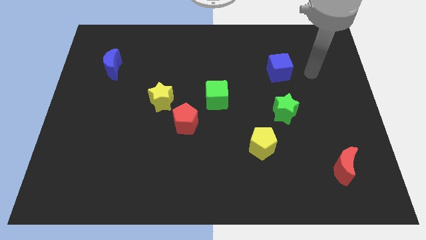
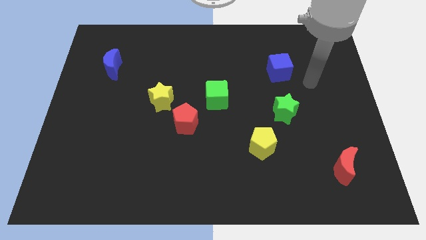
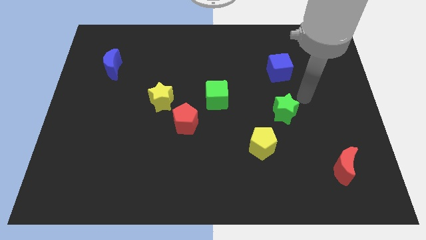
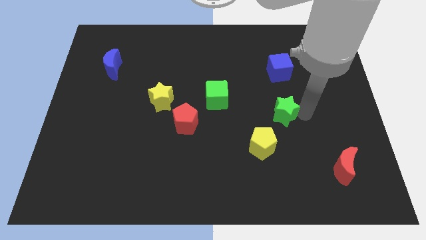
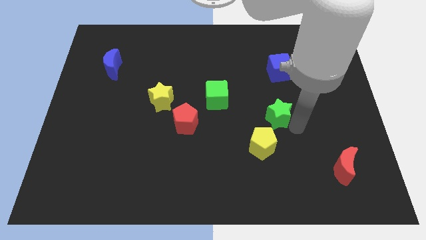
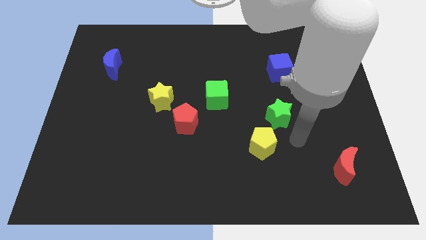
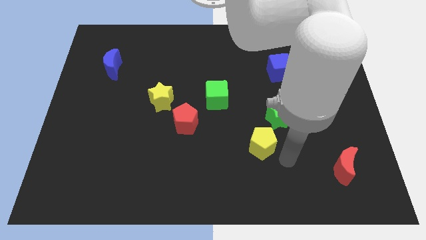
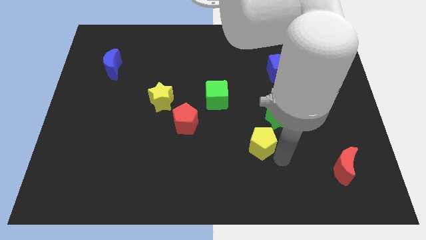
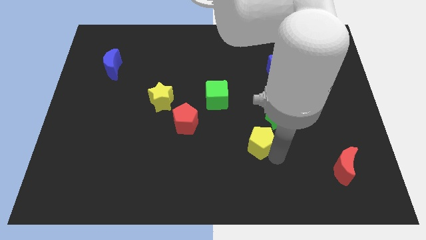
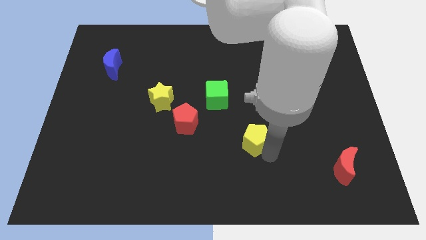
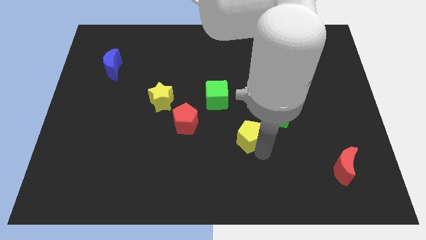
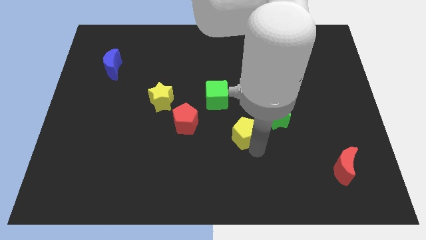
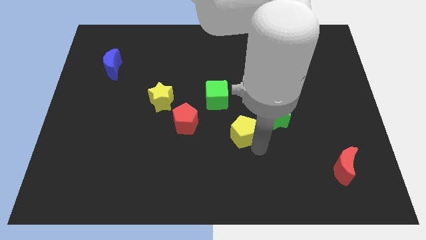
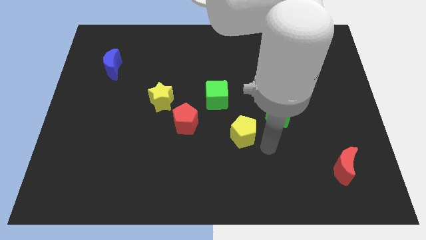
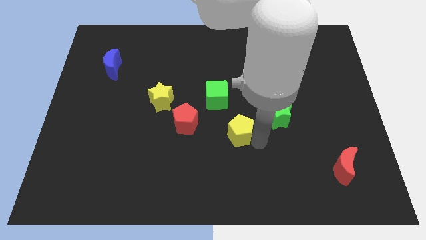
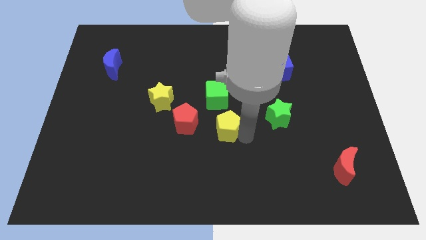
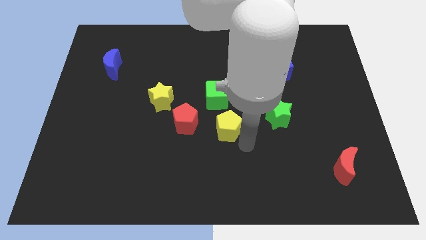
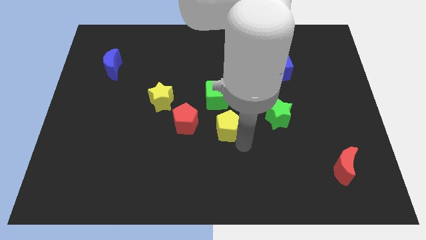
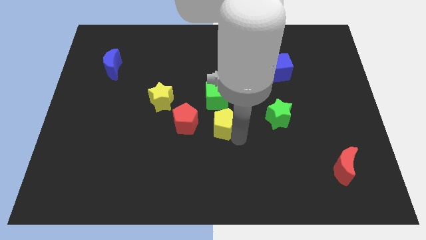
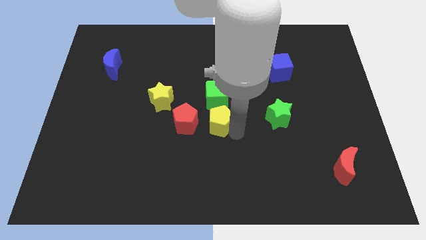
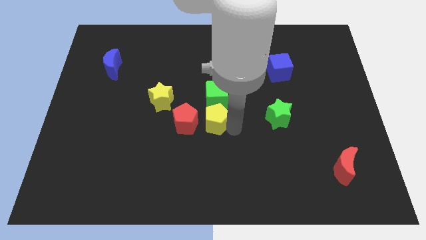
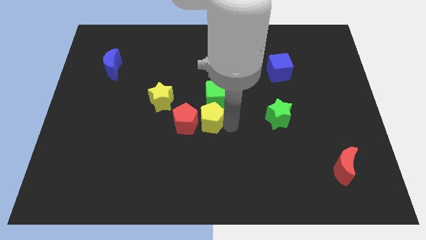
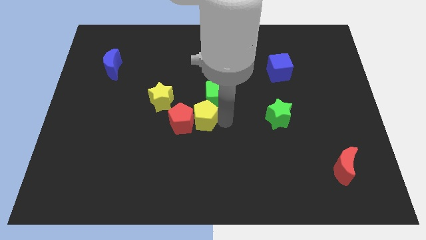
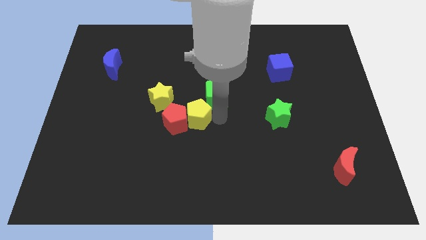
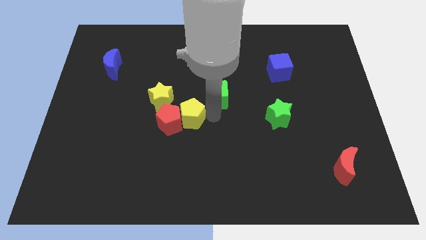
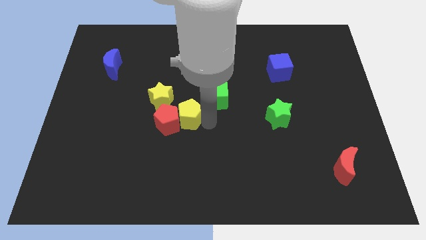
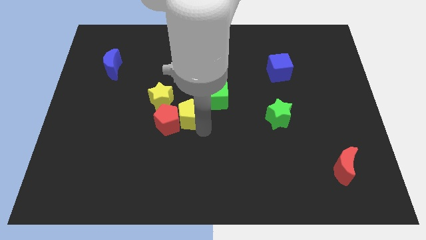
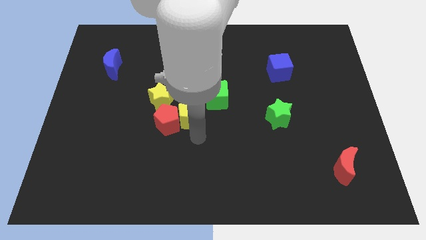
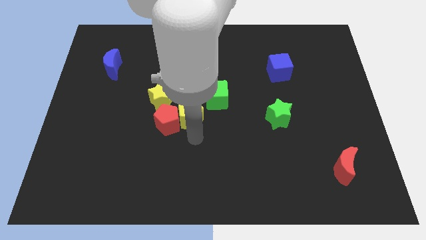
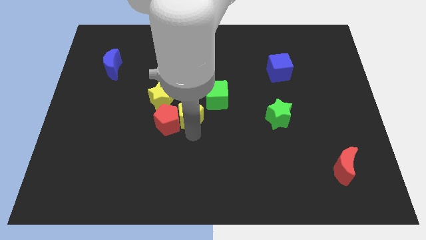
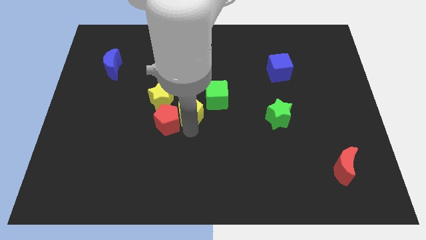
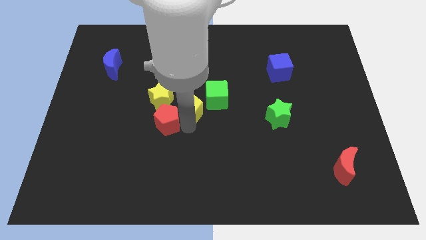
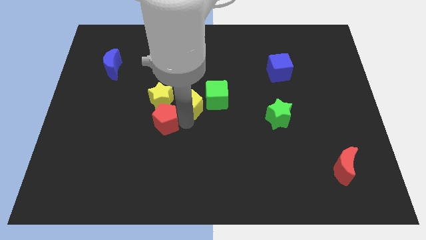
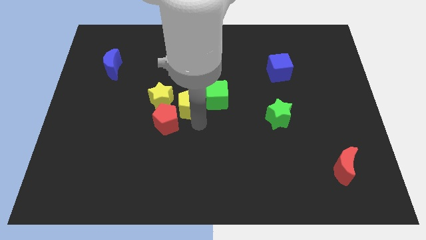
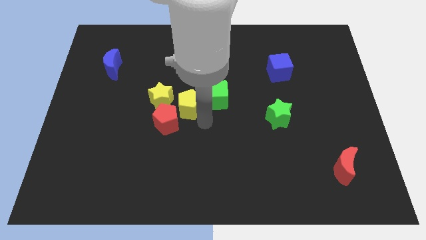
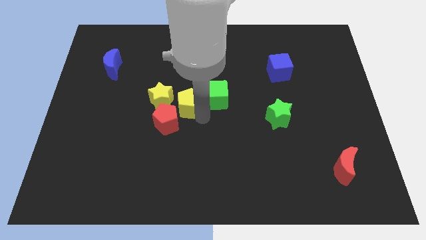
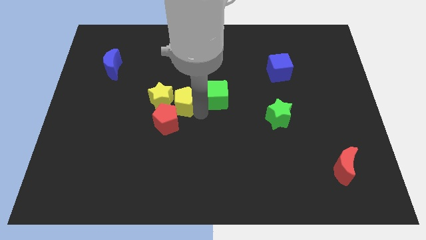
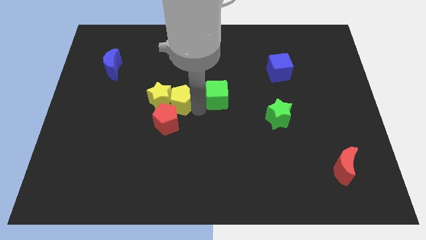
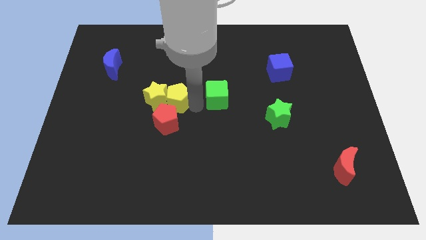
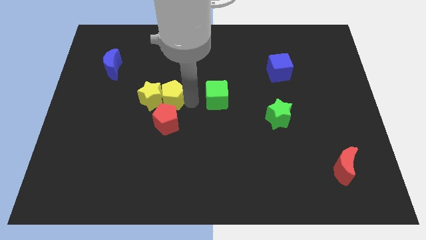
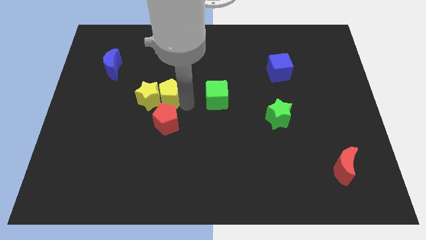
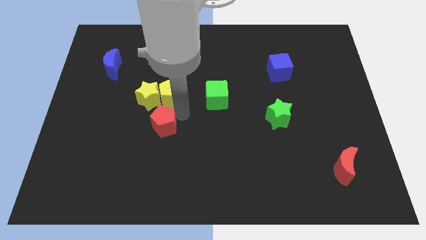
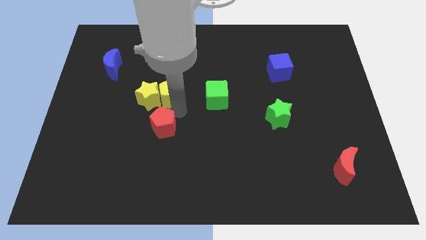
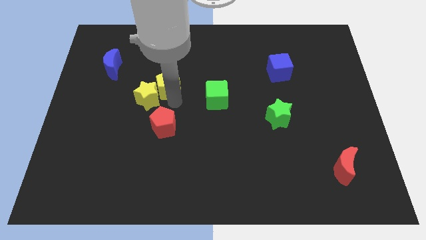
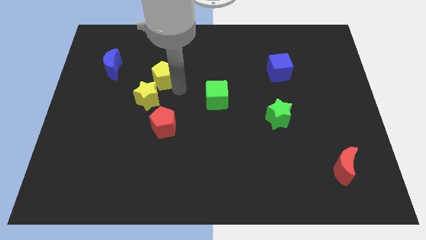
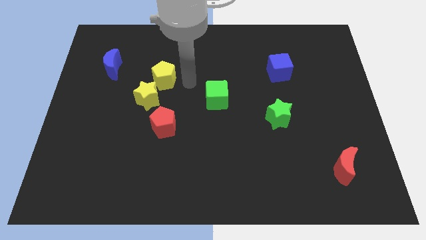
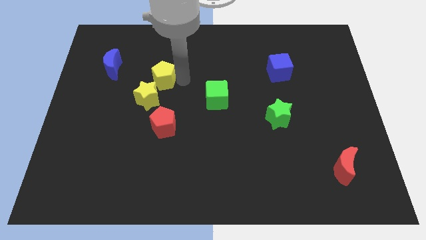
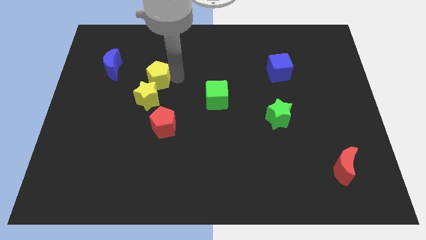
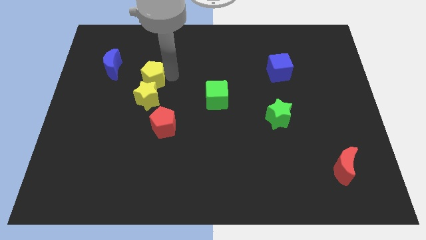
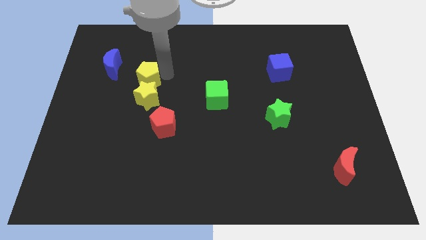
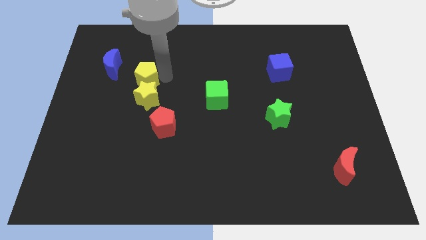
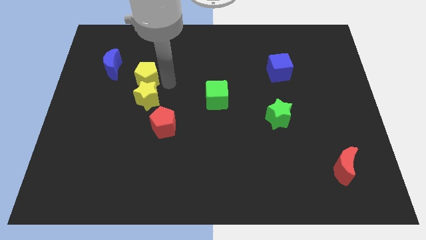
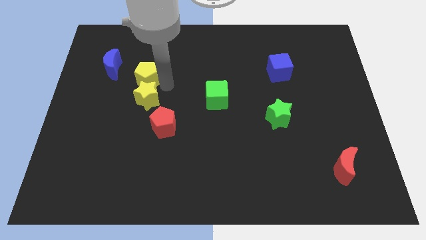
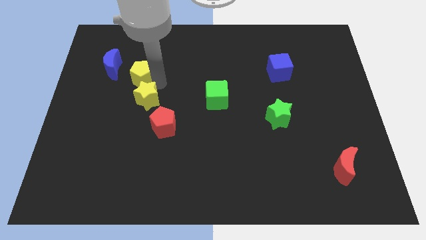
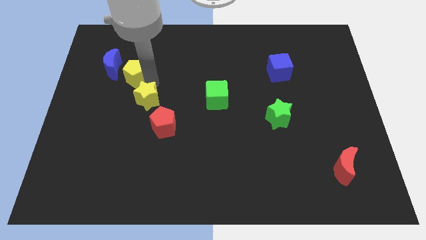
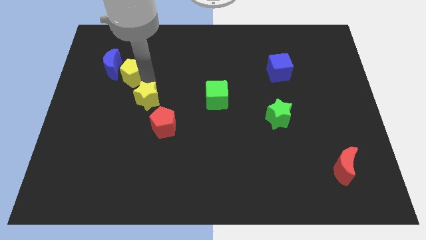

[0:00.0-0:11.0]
move the yellow pentagon to the blue moon

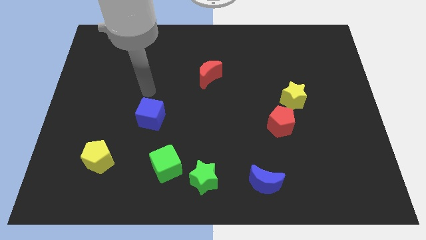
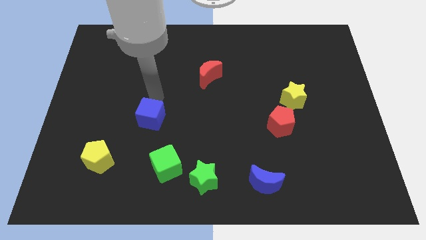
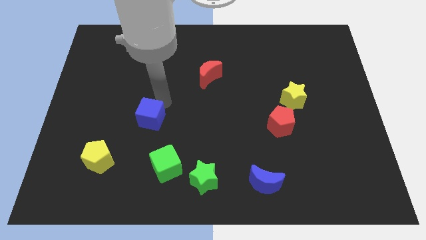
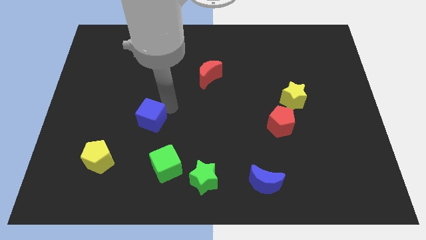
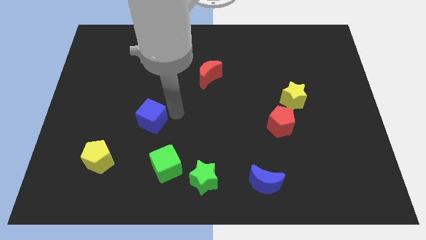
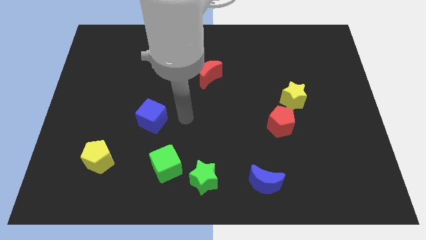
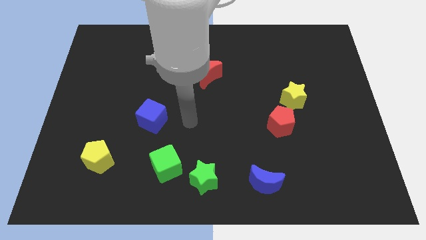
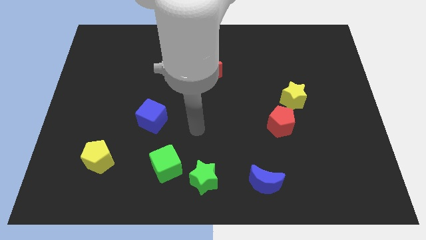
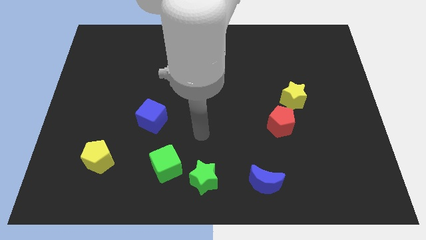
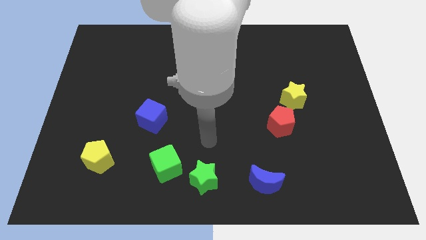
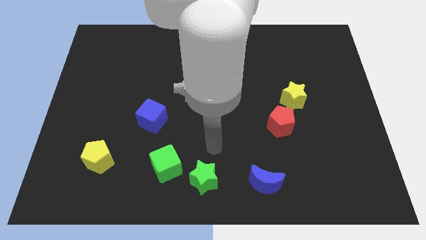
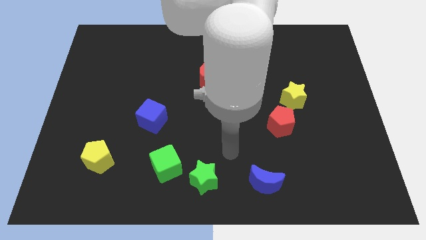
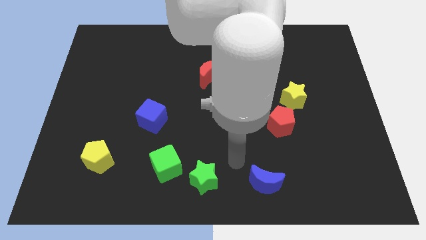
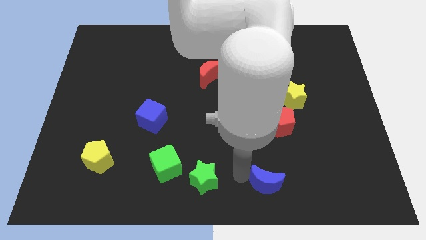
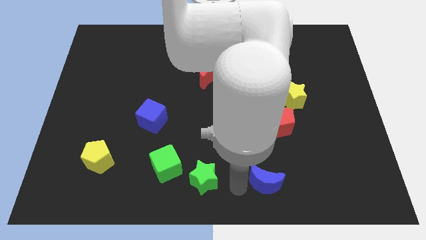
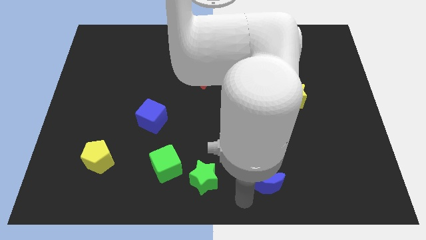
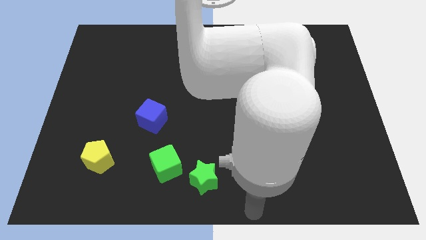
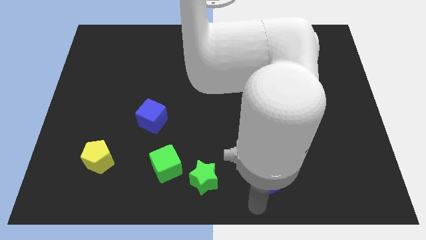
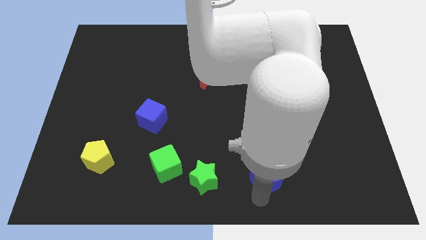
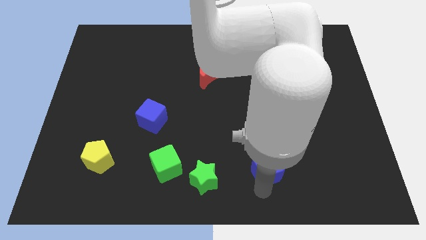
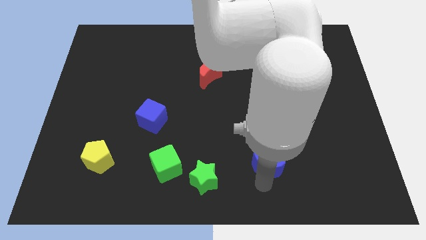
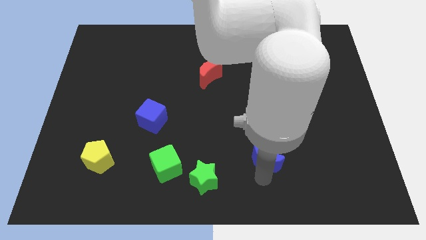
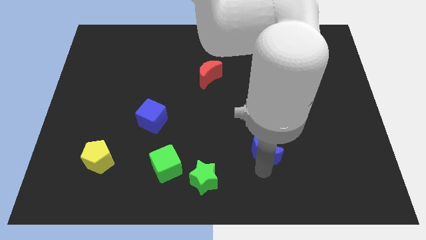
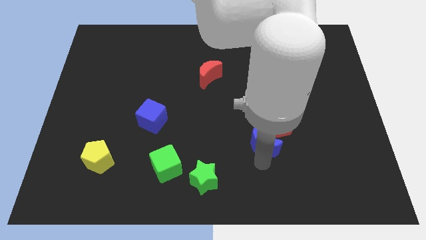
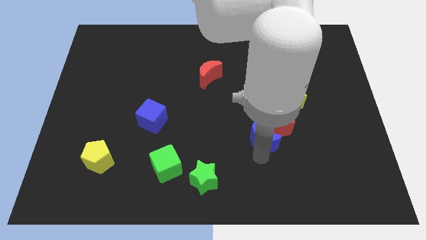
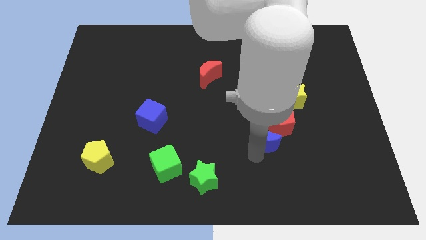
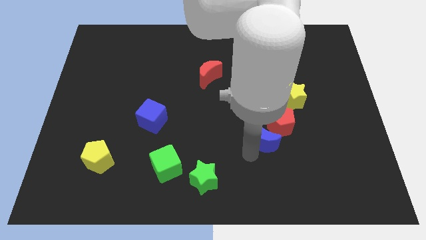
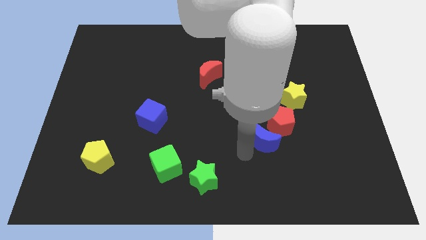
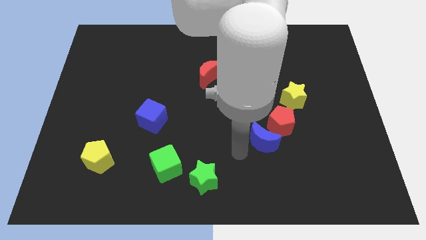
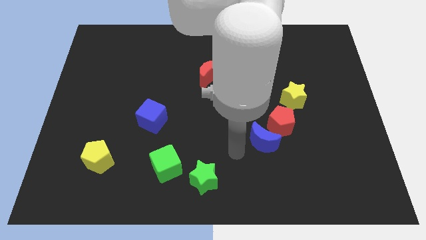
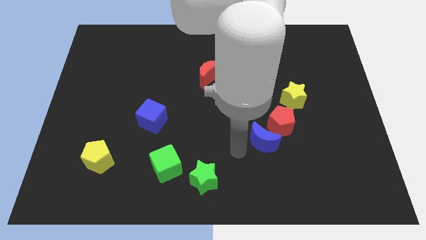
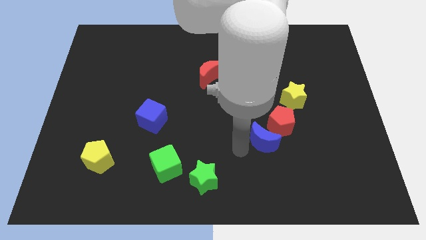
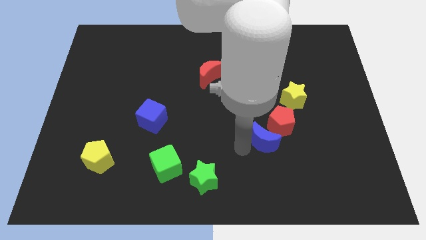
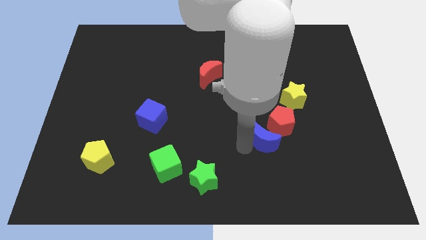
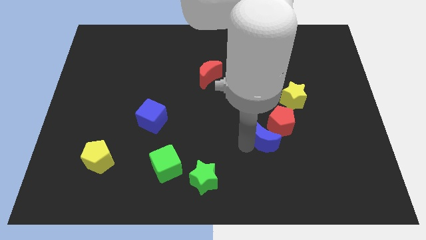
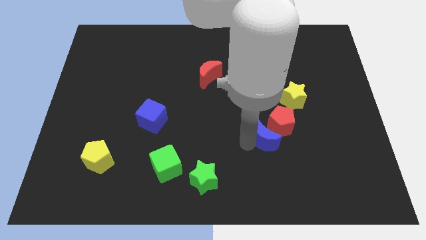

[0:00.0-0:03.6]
push the blue moon close to the red pentagon
